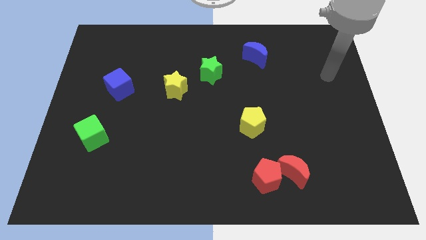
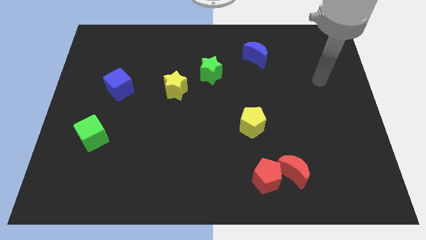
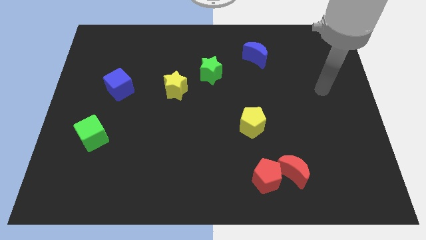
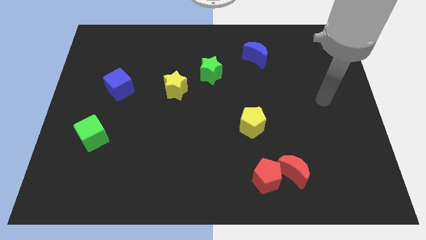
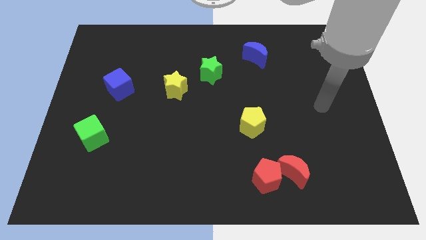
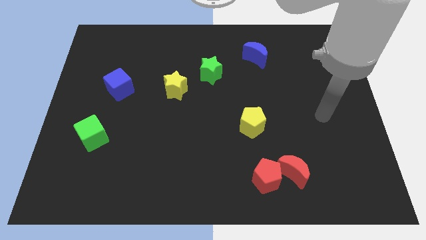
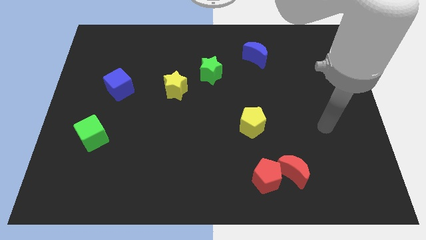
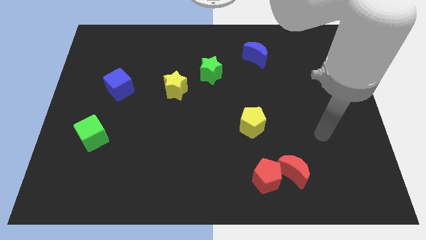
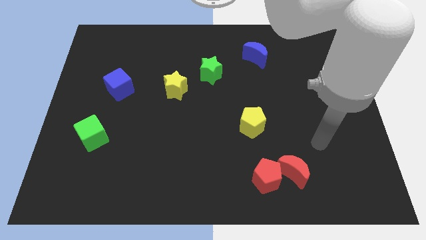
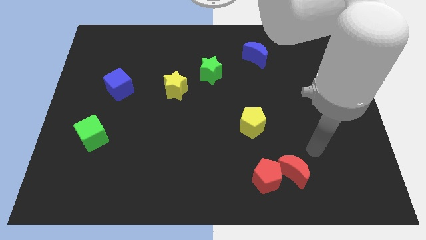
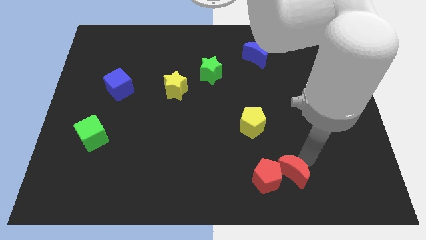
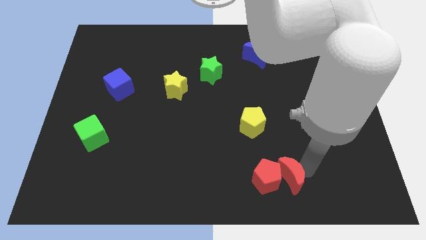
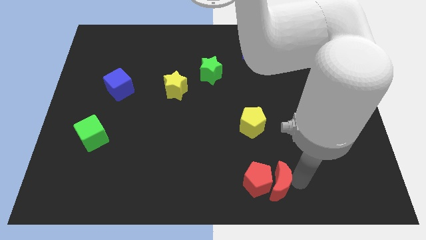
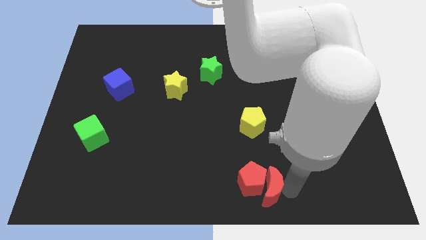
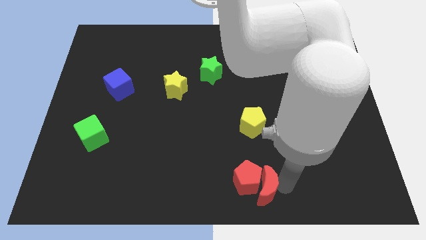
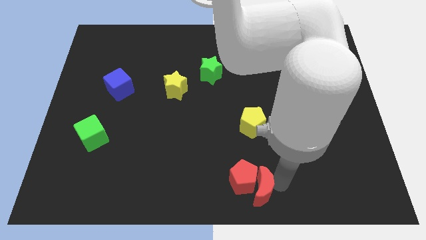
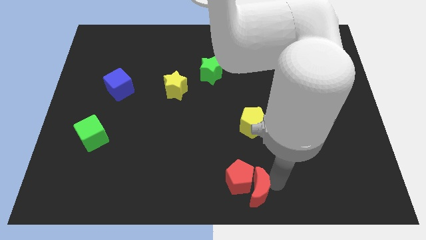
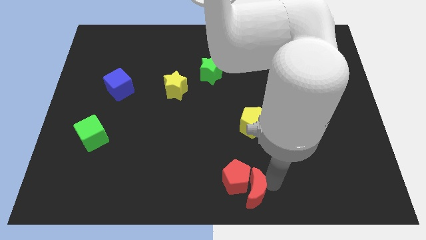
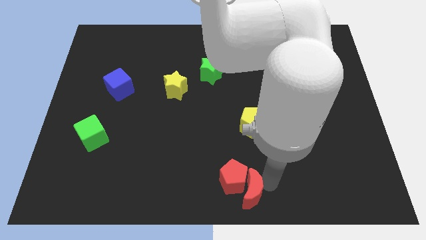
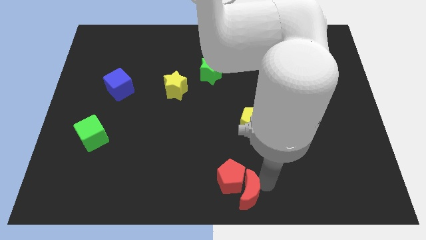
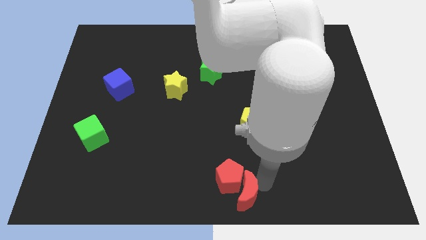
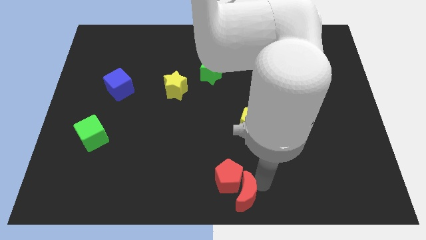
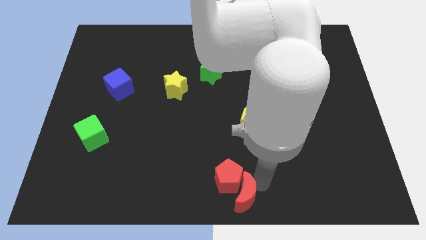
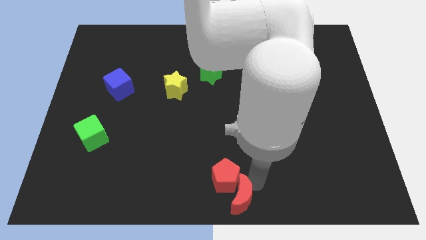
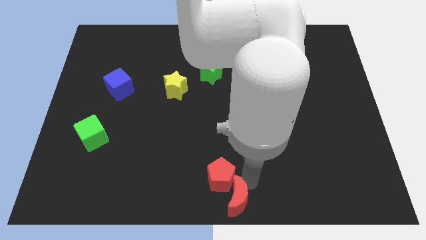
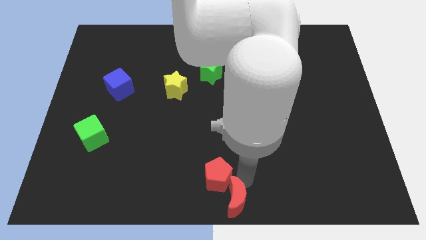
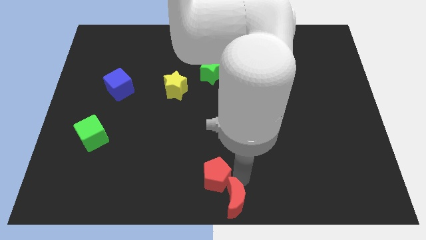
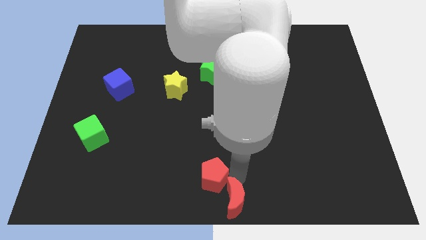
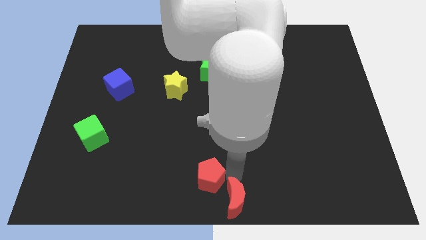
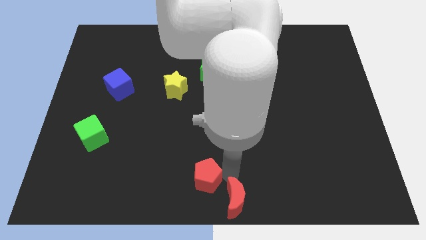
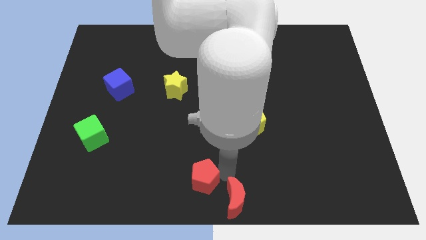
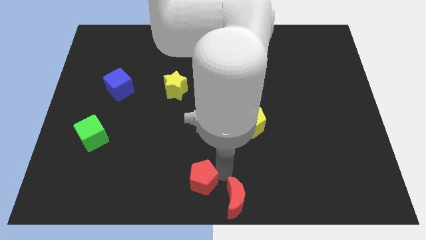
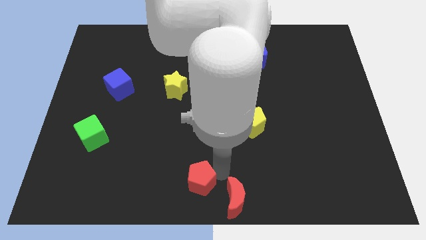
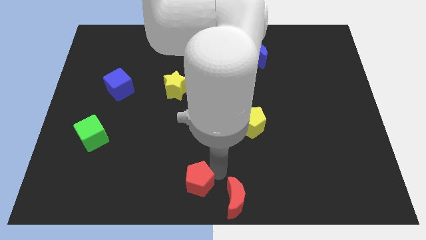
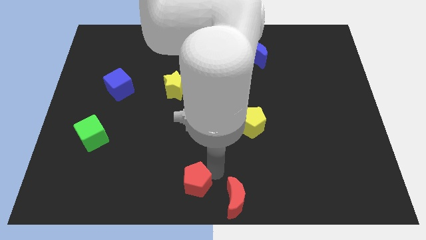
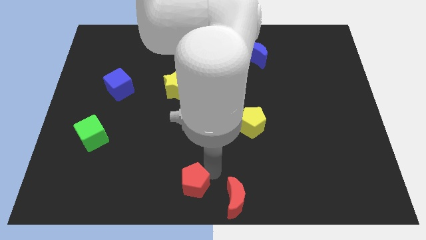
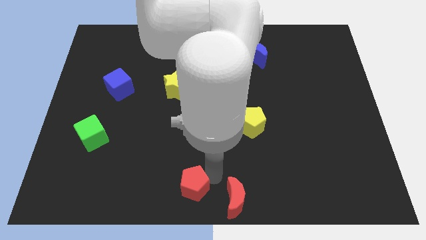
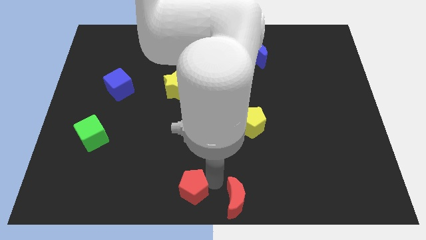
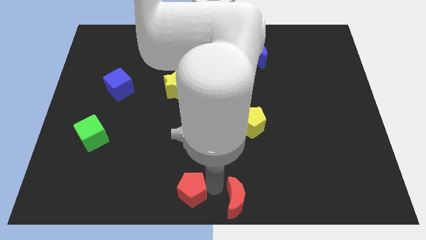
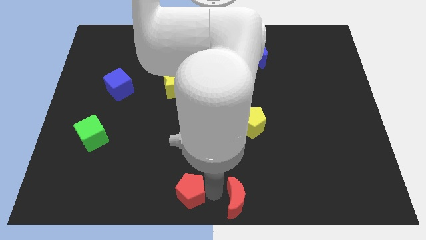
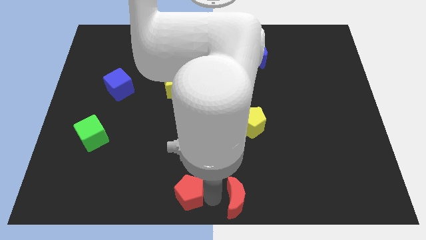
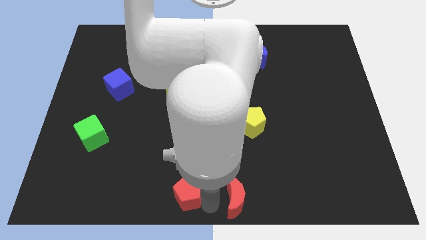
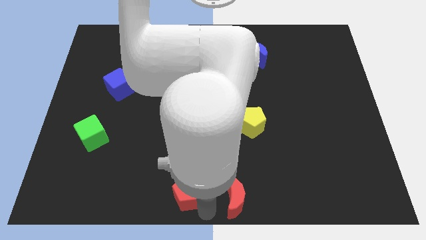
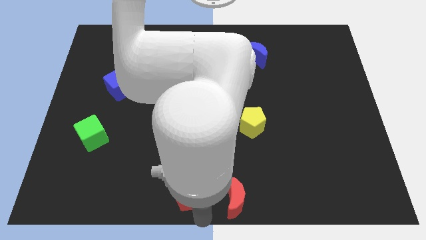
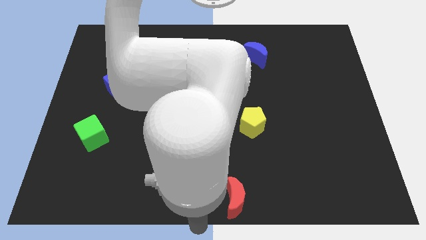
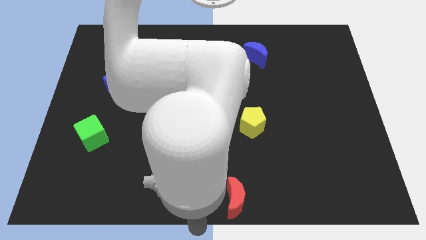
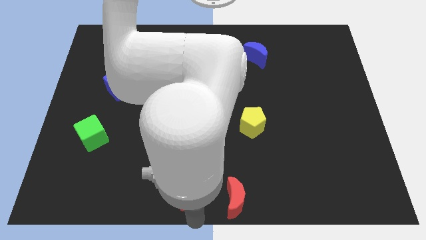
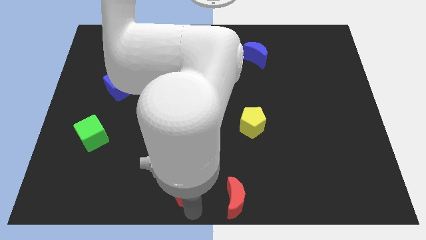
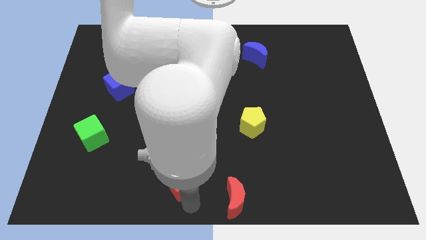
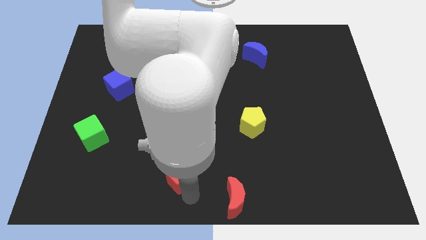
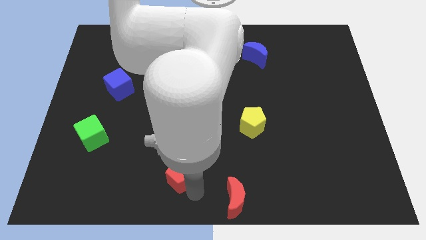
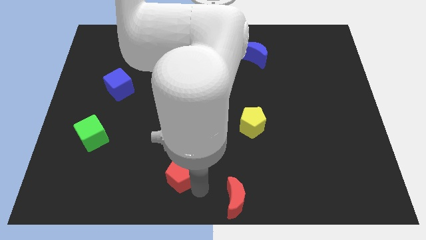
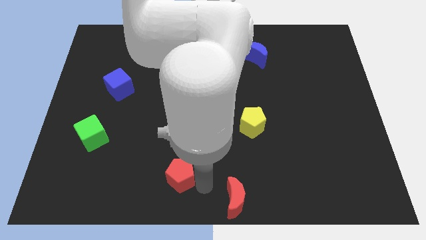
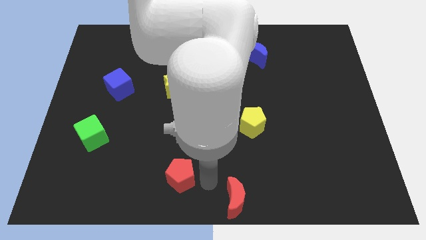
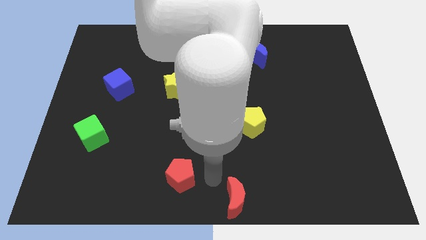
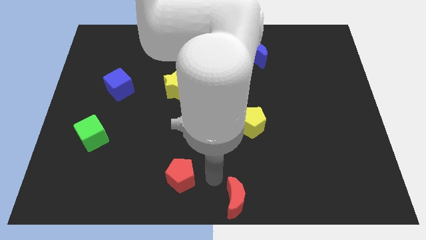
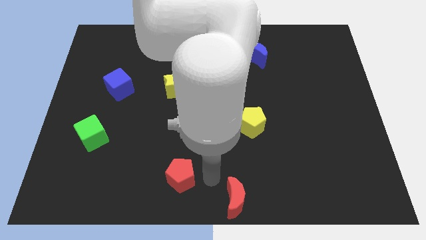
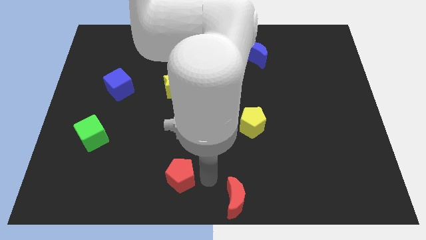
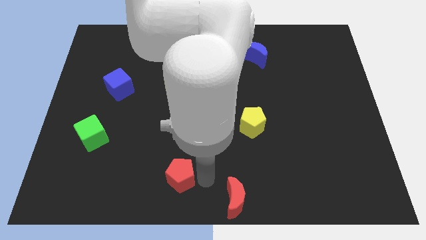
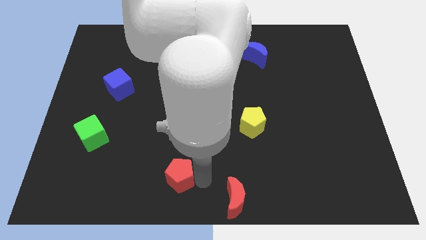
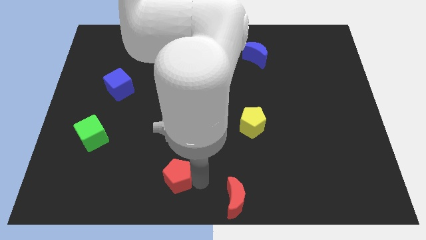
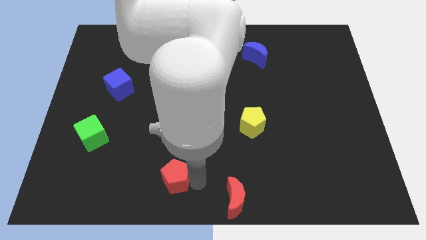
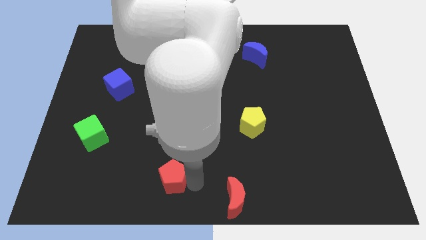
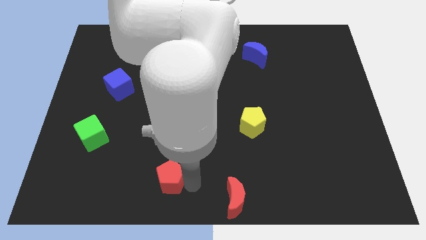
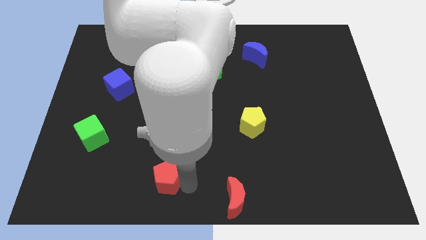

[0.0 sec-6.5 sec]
move the red pentagon to the left

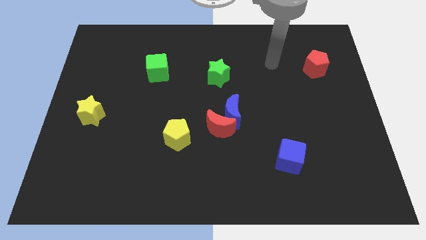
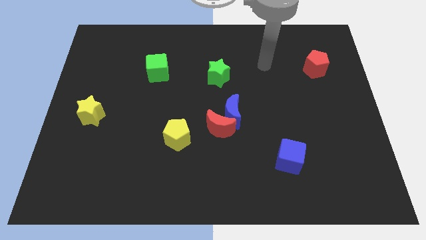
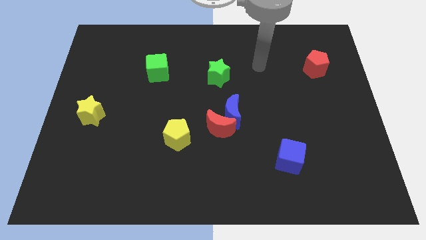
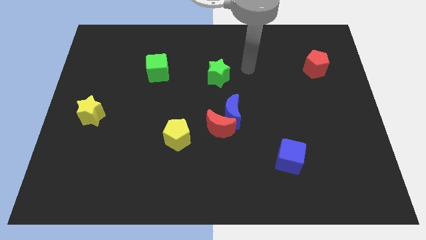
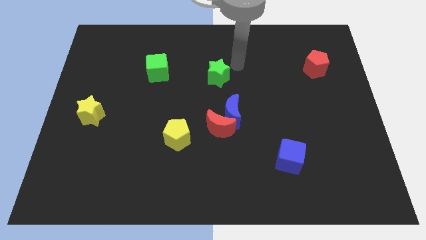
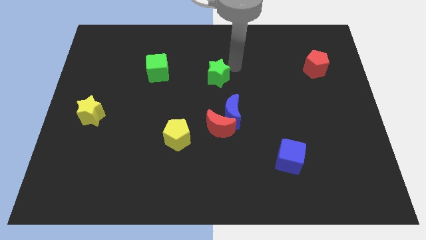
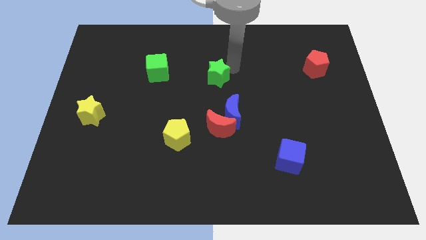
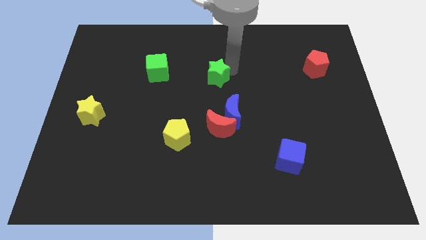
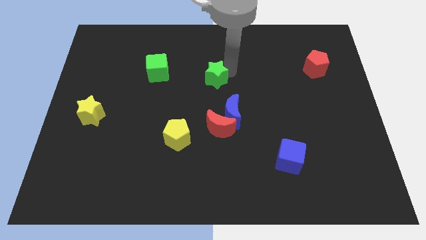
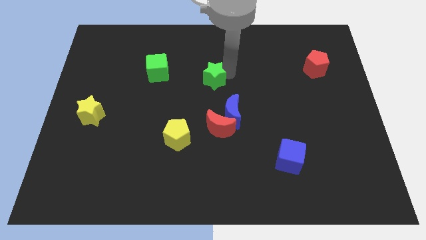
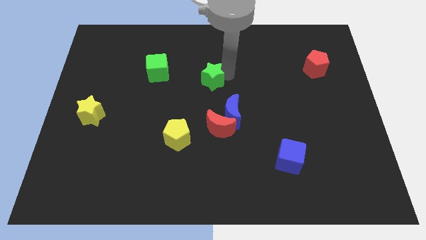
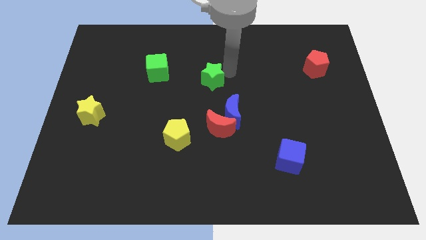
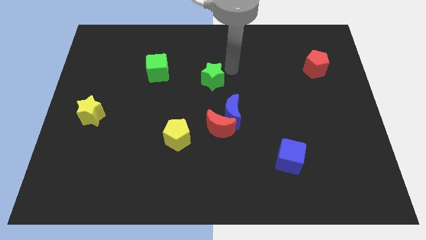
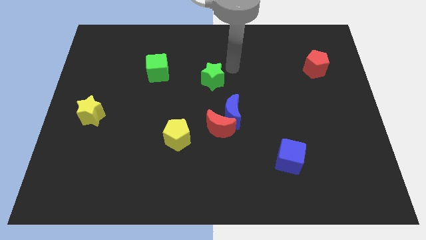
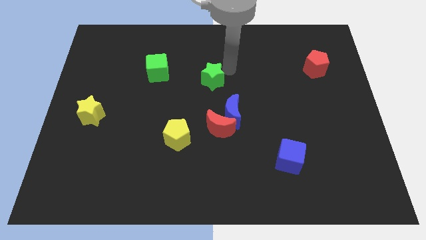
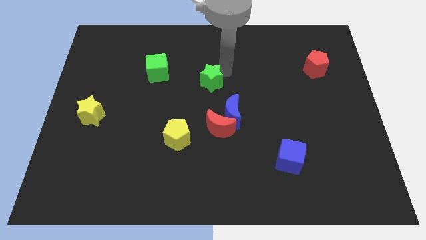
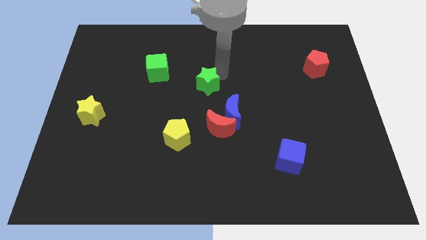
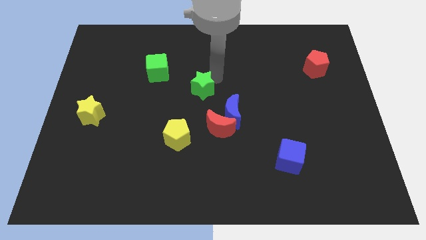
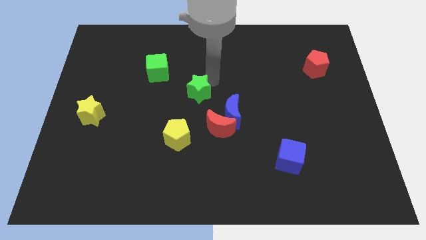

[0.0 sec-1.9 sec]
slightly slide the green star downwards and left diagonally
